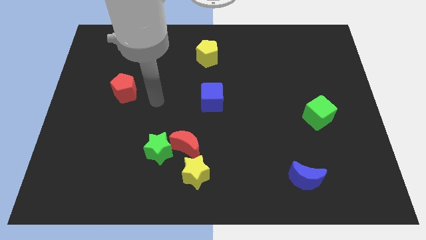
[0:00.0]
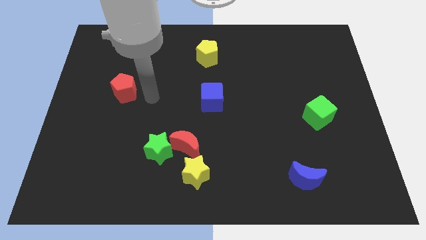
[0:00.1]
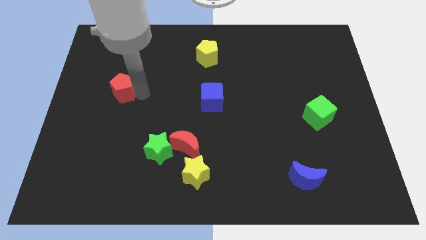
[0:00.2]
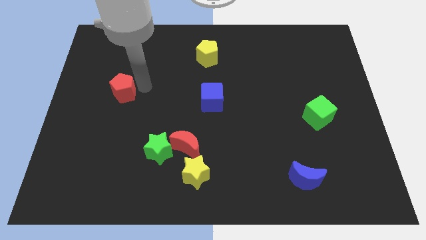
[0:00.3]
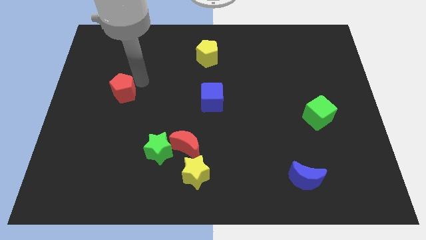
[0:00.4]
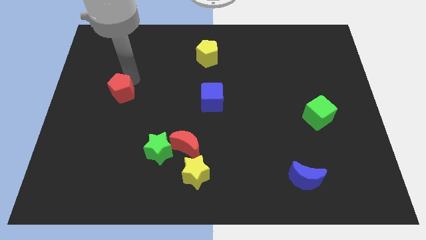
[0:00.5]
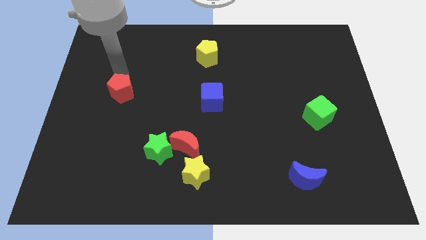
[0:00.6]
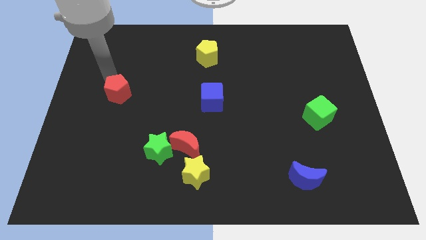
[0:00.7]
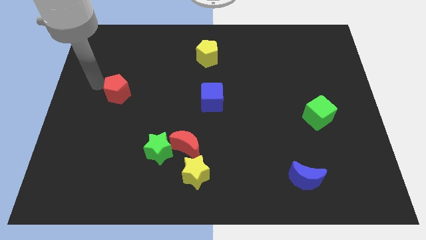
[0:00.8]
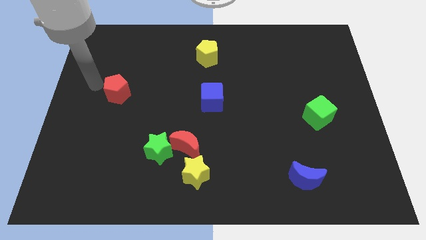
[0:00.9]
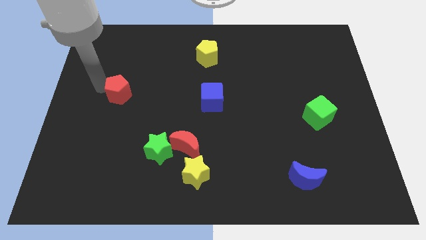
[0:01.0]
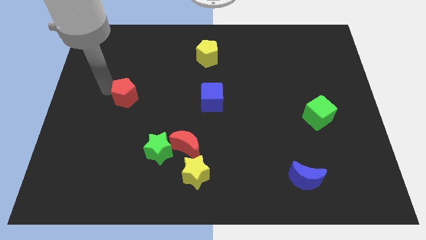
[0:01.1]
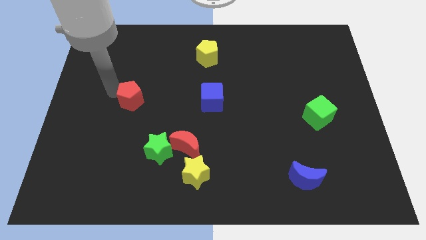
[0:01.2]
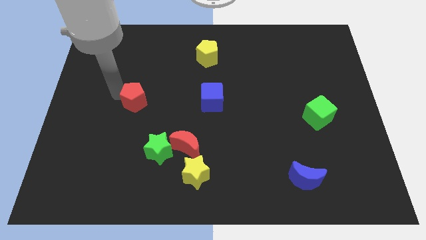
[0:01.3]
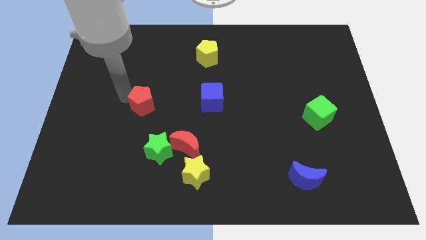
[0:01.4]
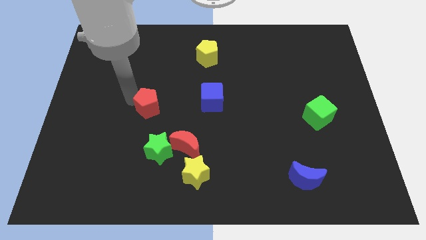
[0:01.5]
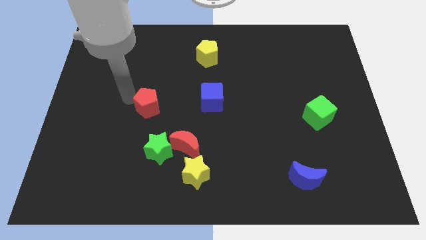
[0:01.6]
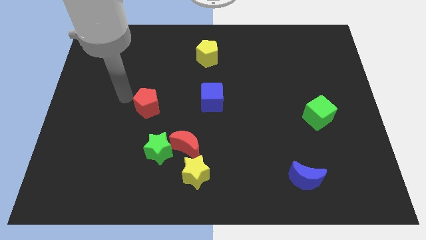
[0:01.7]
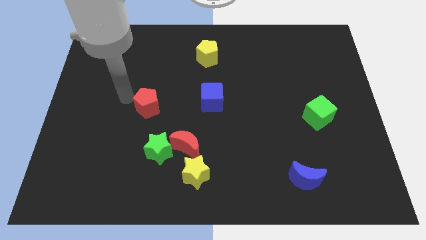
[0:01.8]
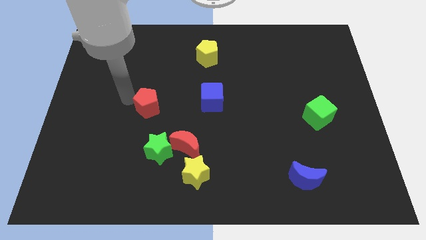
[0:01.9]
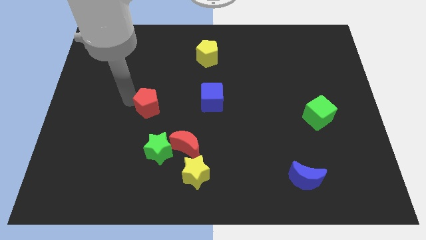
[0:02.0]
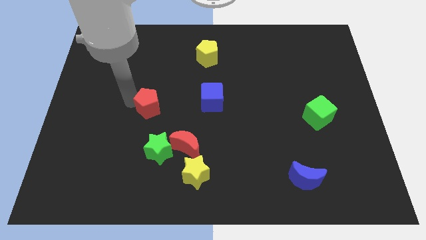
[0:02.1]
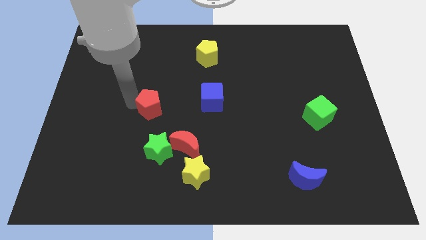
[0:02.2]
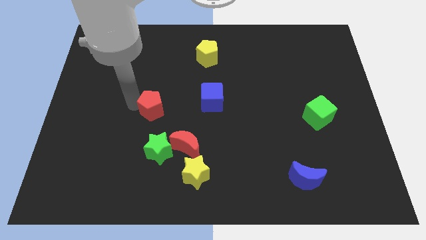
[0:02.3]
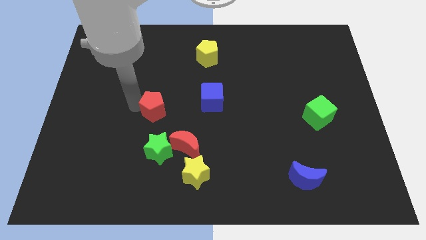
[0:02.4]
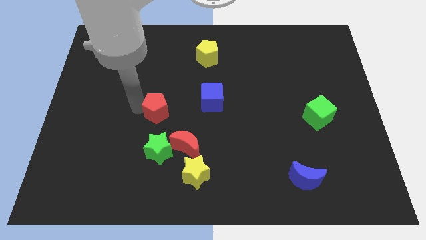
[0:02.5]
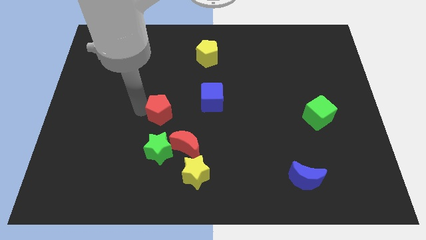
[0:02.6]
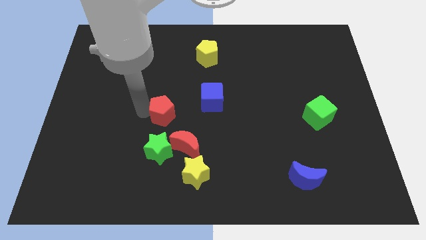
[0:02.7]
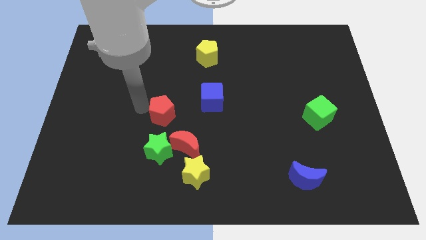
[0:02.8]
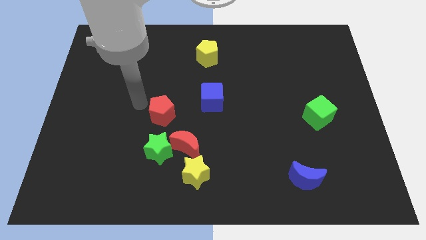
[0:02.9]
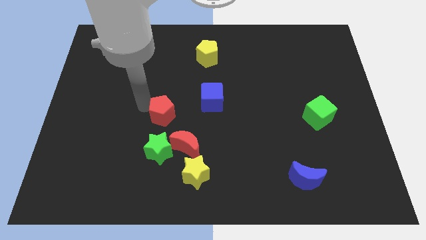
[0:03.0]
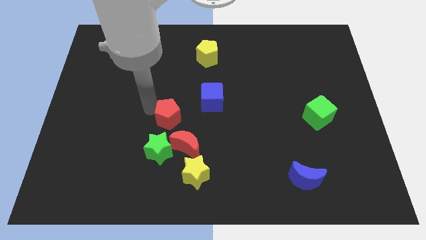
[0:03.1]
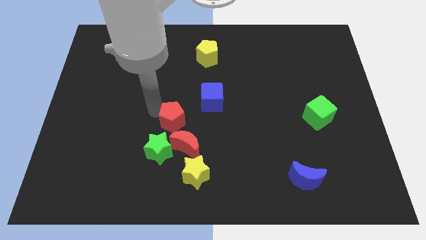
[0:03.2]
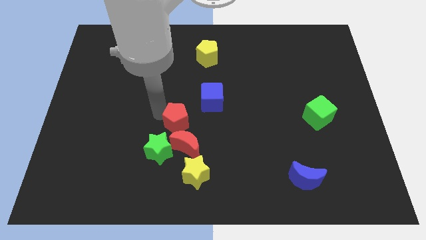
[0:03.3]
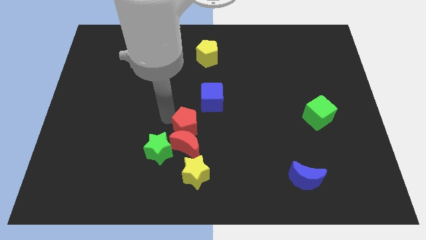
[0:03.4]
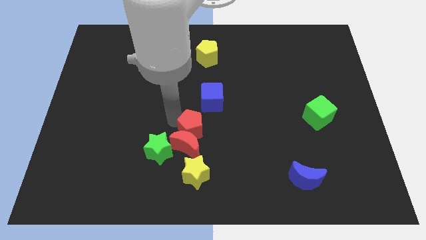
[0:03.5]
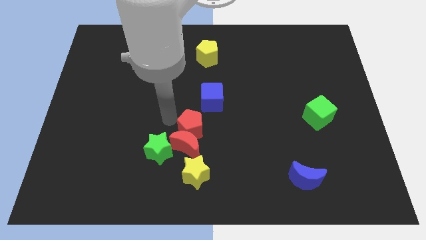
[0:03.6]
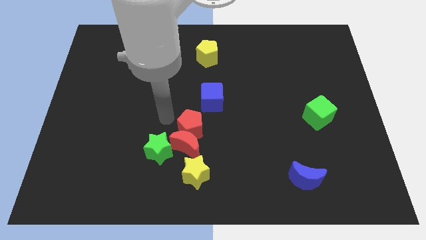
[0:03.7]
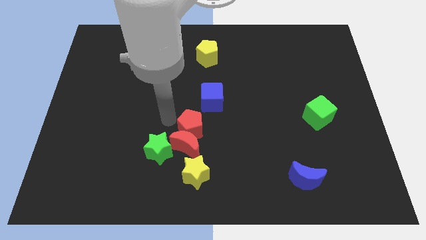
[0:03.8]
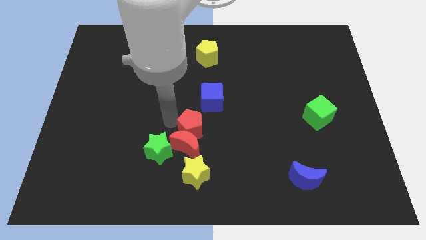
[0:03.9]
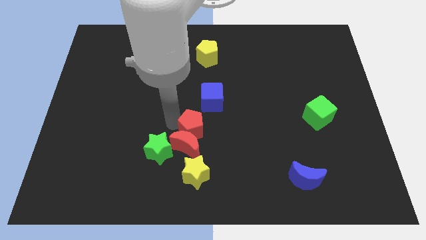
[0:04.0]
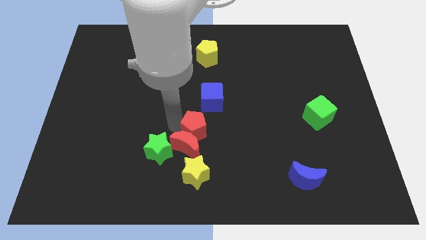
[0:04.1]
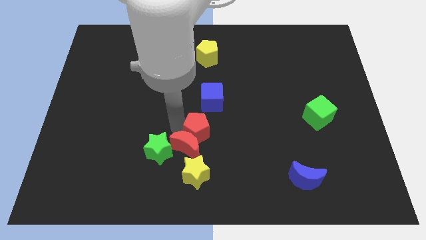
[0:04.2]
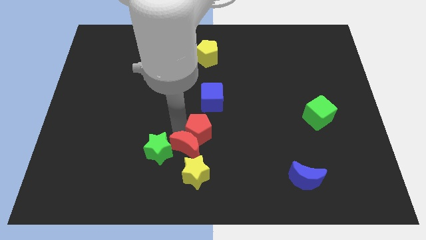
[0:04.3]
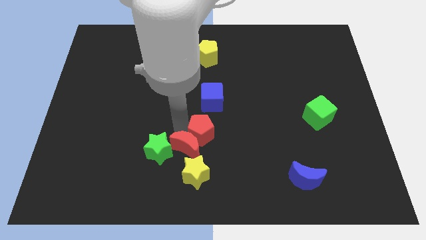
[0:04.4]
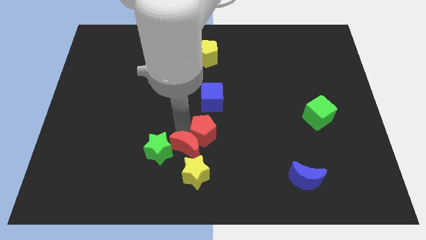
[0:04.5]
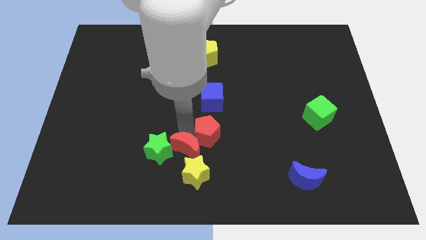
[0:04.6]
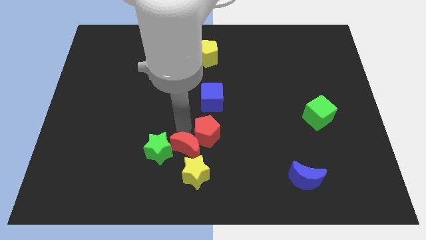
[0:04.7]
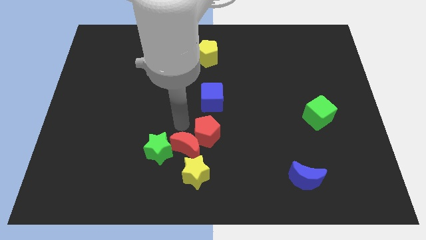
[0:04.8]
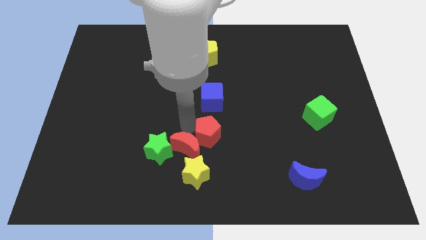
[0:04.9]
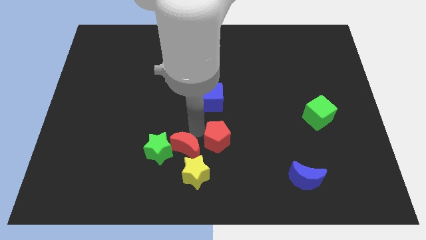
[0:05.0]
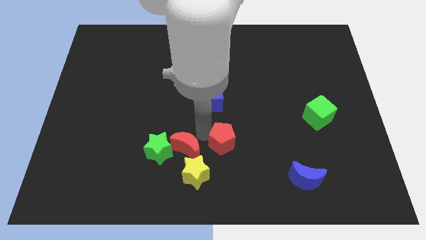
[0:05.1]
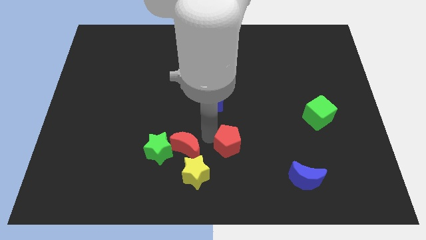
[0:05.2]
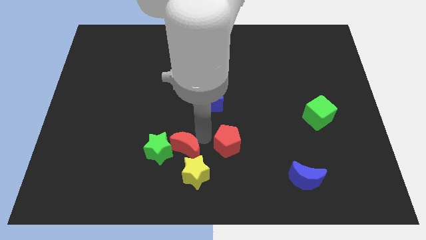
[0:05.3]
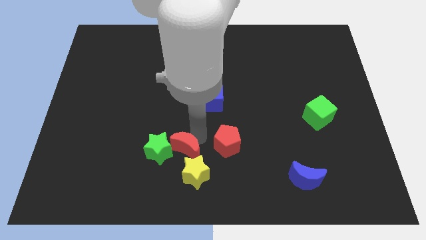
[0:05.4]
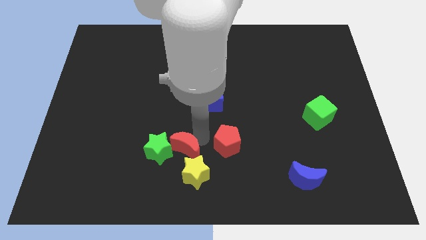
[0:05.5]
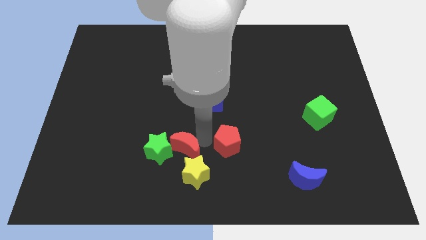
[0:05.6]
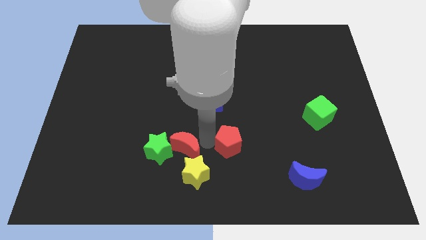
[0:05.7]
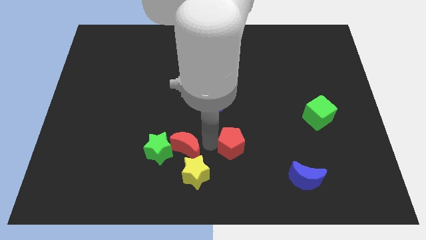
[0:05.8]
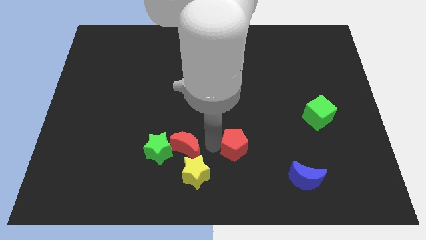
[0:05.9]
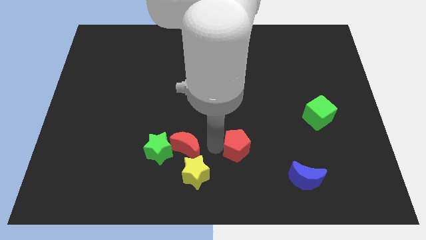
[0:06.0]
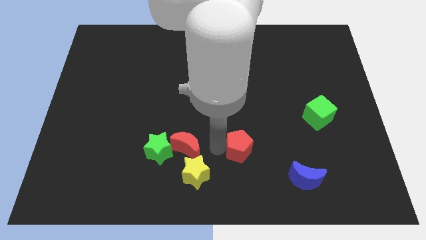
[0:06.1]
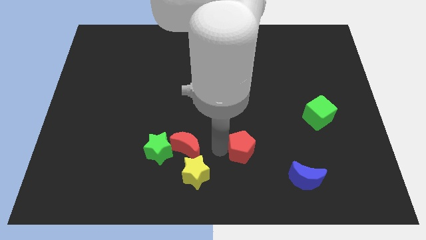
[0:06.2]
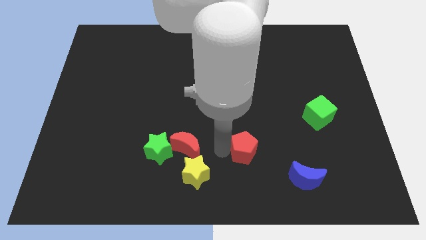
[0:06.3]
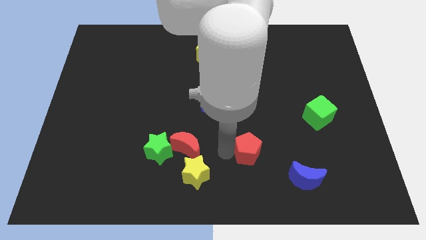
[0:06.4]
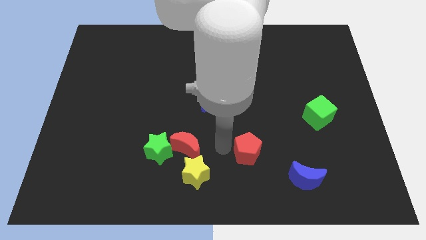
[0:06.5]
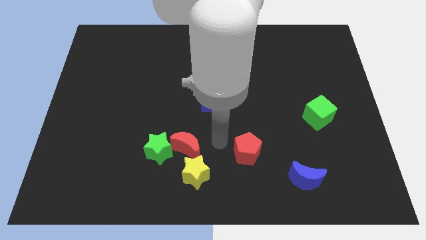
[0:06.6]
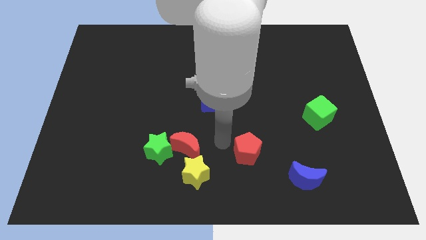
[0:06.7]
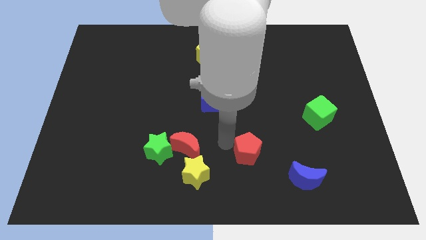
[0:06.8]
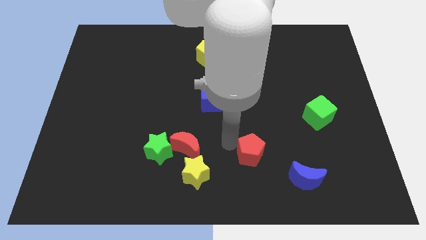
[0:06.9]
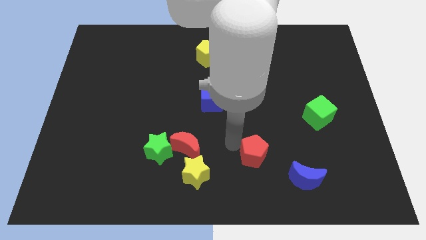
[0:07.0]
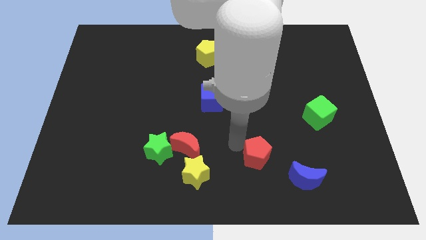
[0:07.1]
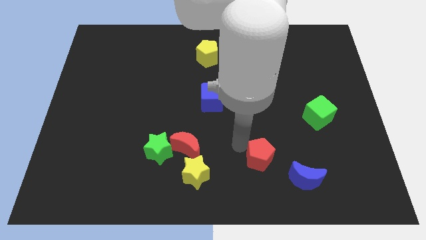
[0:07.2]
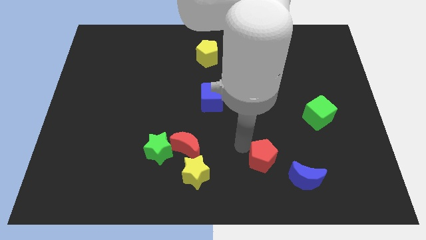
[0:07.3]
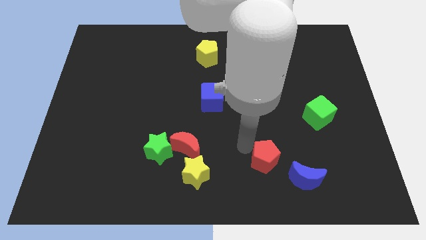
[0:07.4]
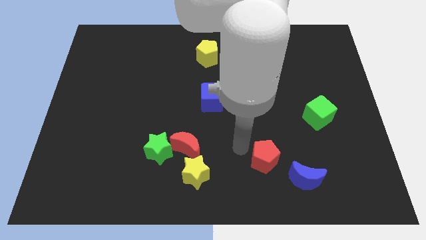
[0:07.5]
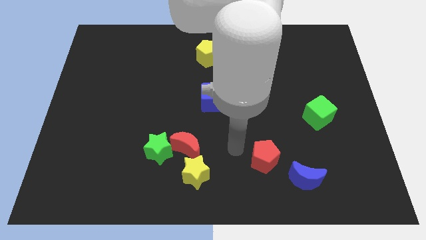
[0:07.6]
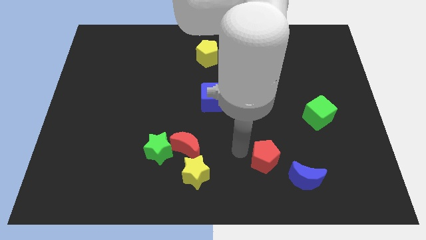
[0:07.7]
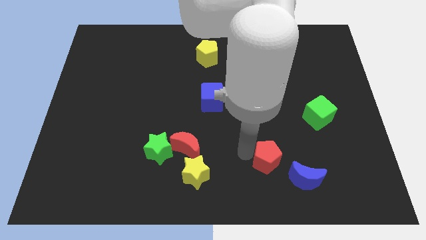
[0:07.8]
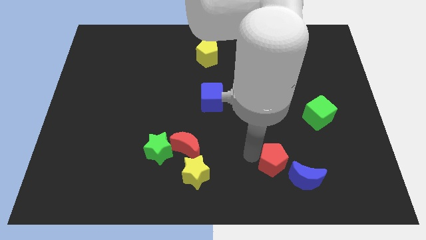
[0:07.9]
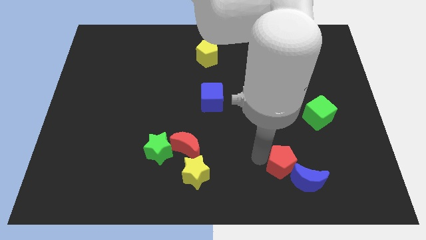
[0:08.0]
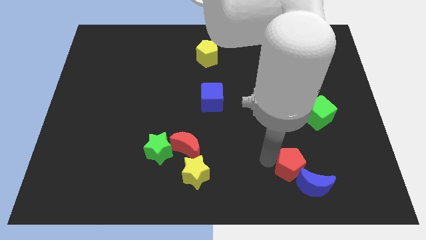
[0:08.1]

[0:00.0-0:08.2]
move the red pentagon to the blue moon

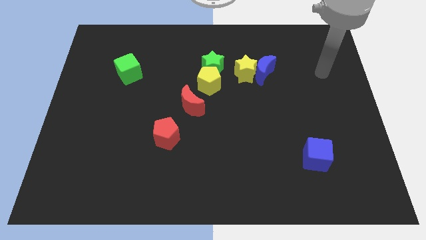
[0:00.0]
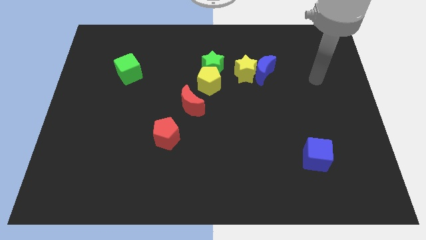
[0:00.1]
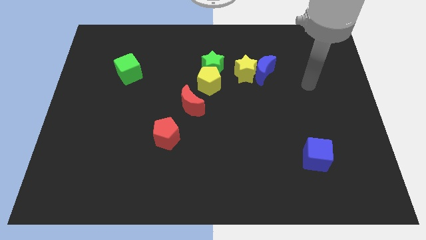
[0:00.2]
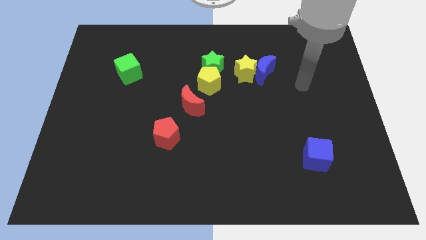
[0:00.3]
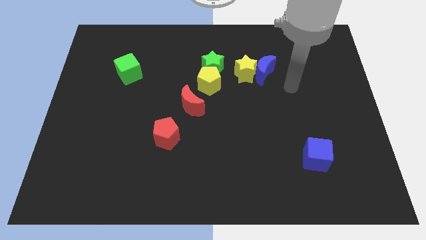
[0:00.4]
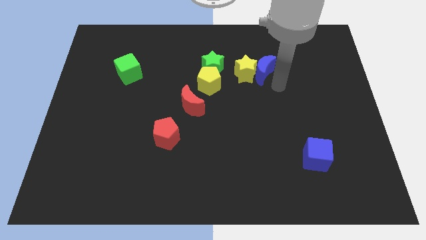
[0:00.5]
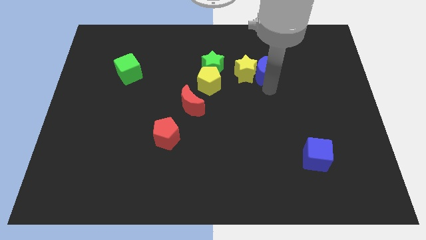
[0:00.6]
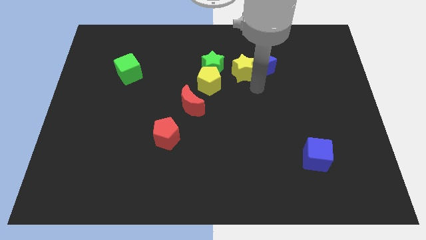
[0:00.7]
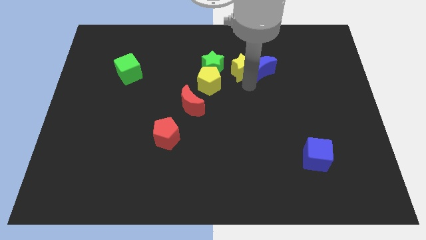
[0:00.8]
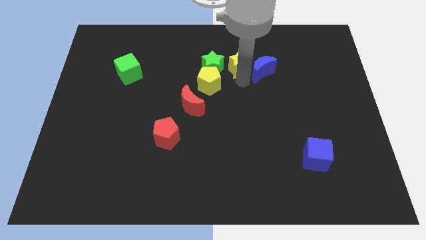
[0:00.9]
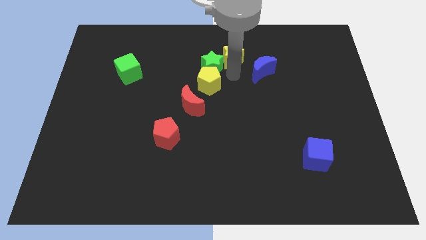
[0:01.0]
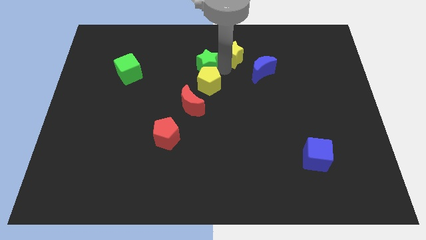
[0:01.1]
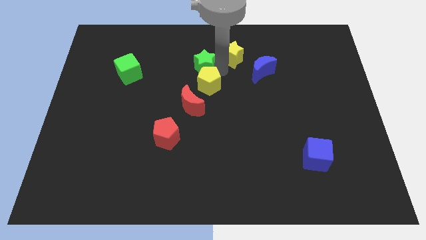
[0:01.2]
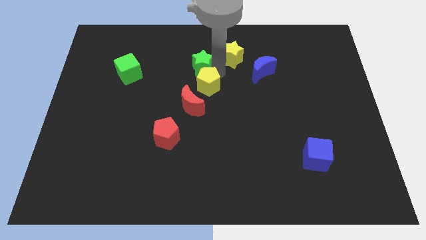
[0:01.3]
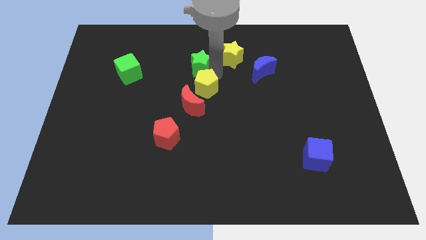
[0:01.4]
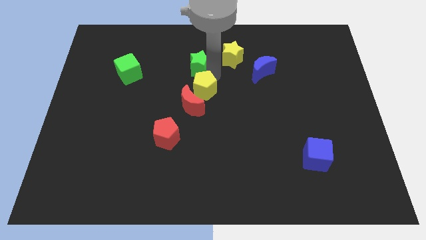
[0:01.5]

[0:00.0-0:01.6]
put the yellow pentagon towards the red moon
